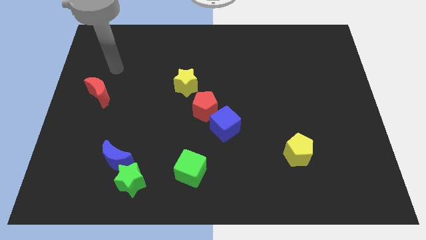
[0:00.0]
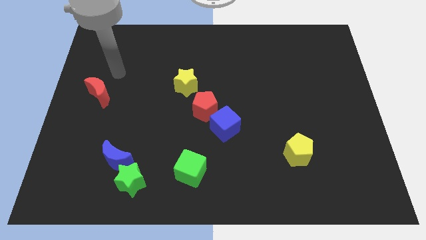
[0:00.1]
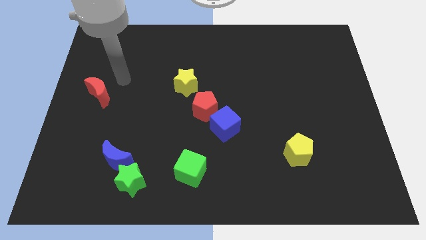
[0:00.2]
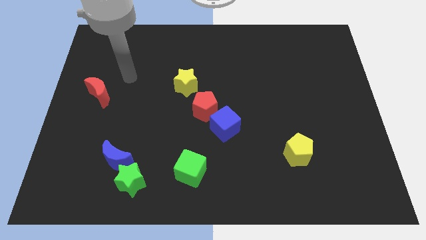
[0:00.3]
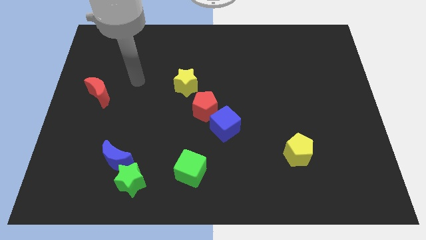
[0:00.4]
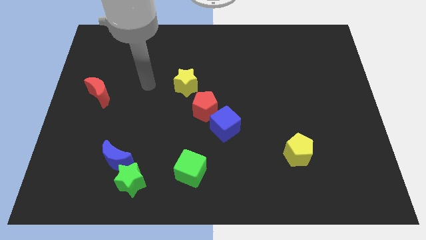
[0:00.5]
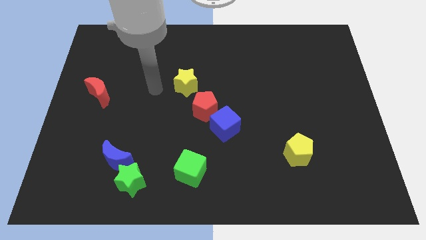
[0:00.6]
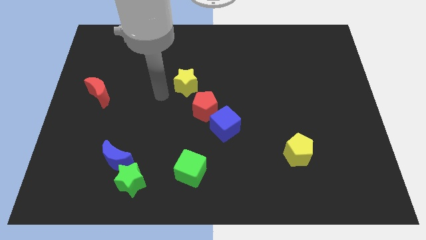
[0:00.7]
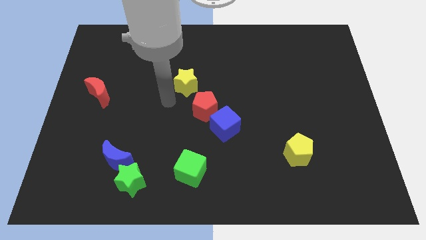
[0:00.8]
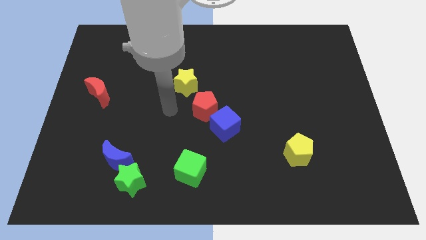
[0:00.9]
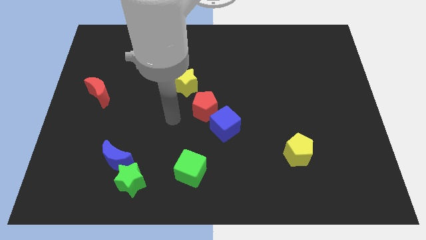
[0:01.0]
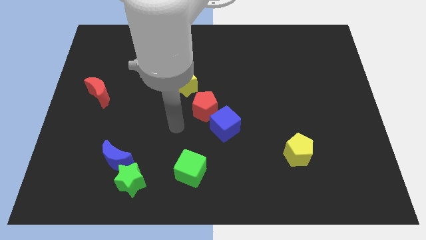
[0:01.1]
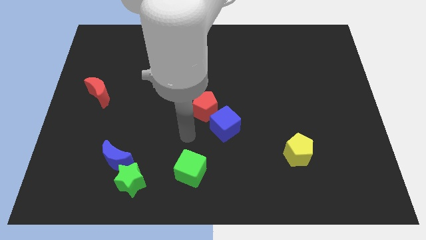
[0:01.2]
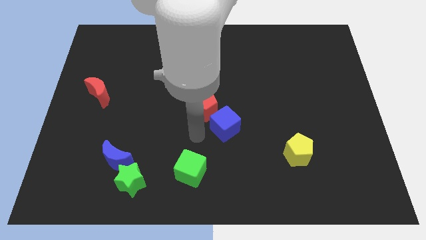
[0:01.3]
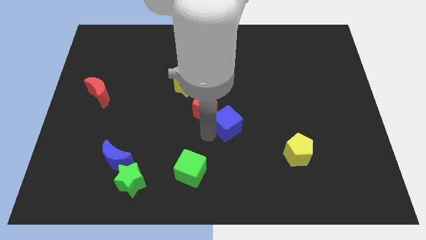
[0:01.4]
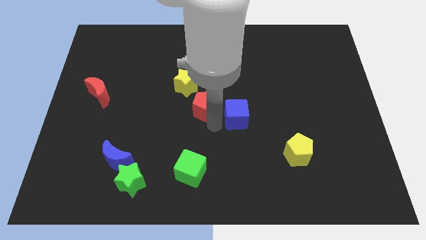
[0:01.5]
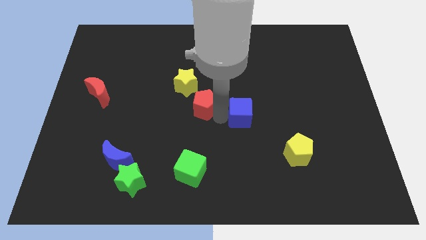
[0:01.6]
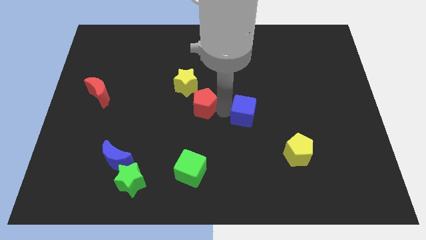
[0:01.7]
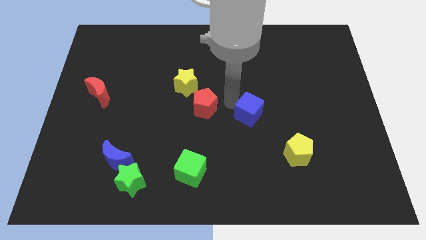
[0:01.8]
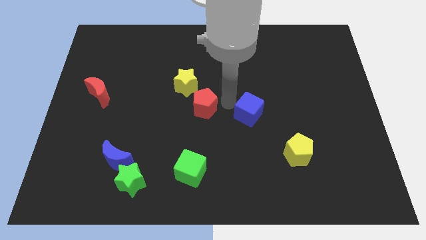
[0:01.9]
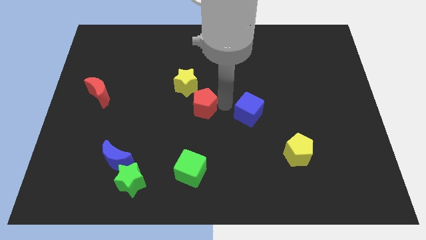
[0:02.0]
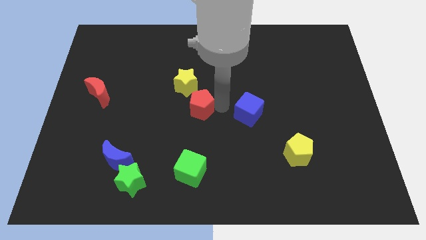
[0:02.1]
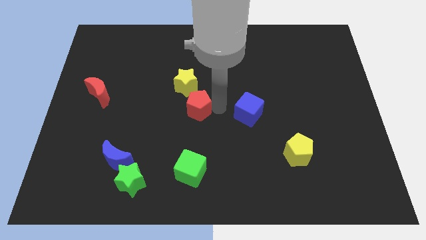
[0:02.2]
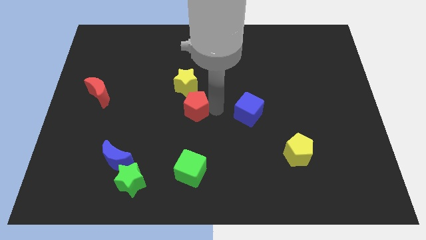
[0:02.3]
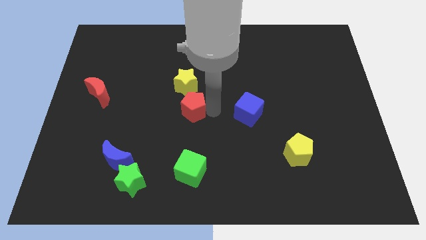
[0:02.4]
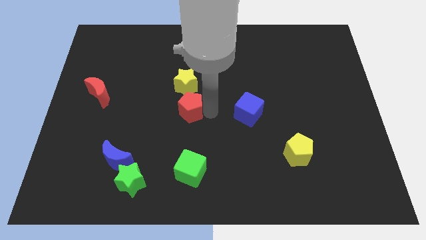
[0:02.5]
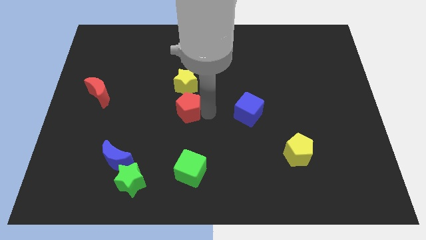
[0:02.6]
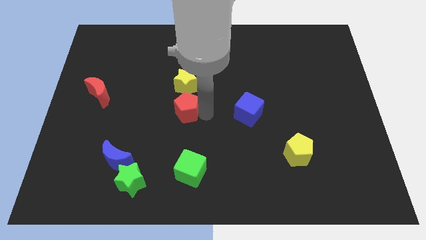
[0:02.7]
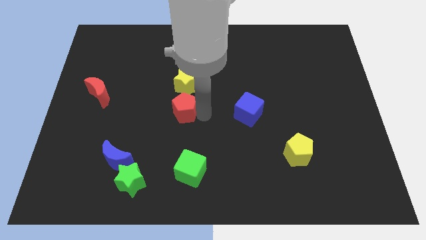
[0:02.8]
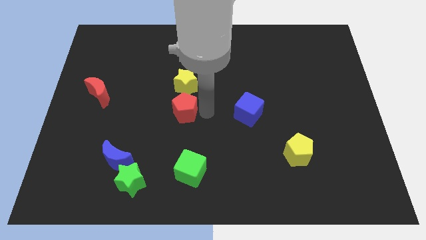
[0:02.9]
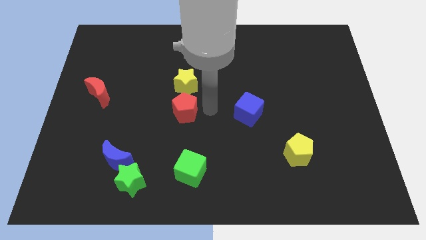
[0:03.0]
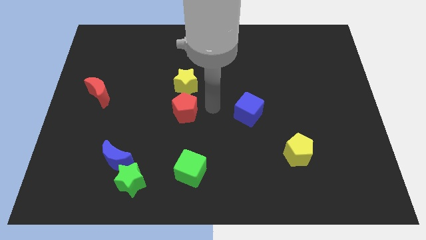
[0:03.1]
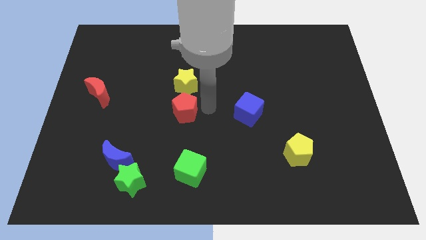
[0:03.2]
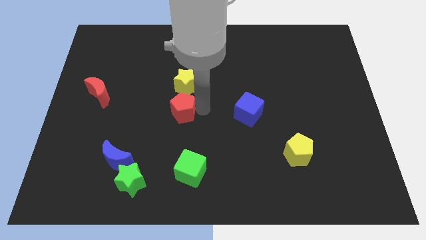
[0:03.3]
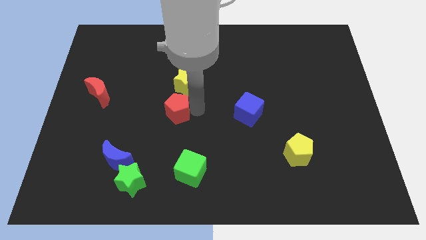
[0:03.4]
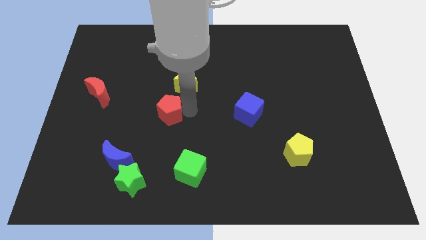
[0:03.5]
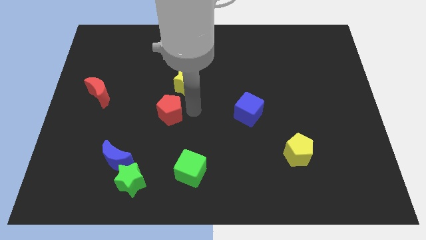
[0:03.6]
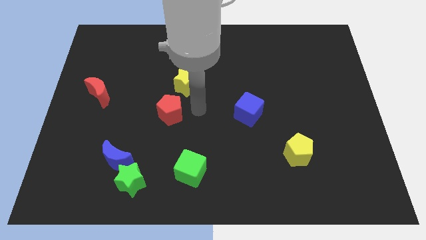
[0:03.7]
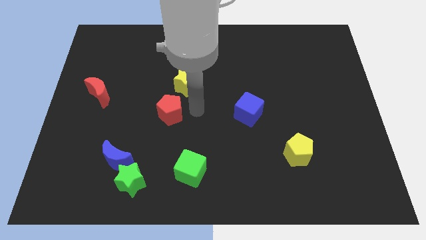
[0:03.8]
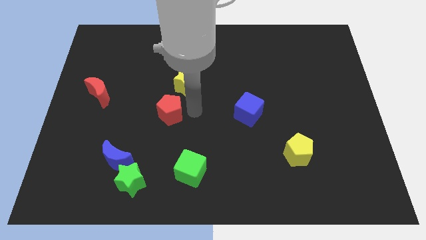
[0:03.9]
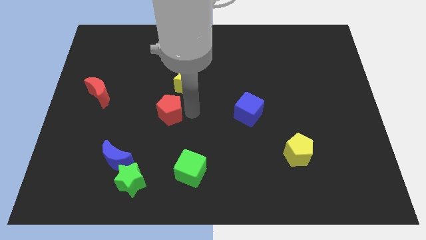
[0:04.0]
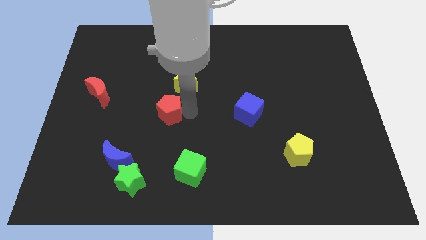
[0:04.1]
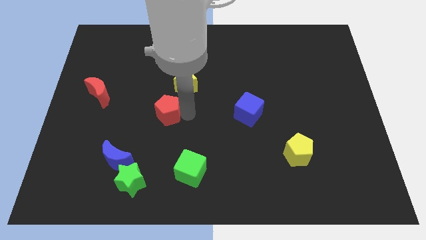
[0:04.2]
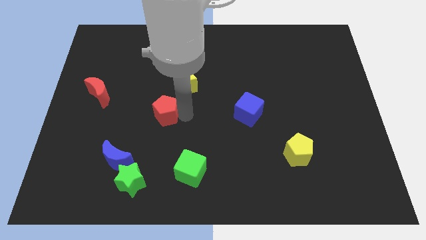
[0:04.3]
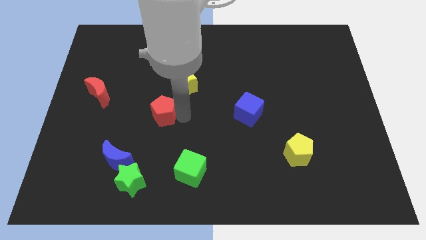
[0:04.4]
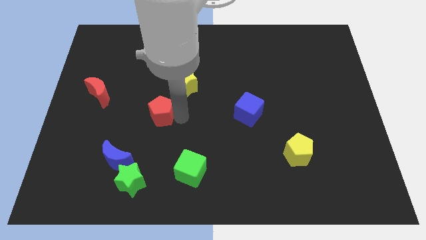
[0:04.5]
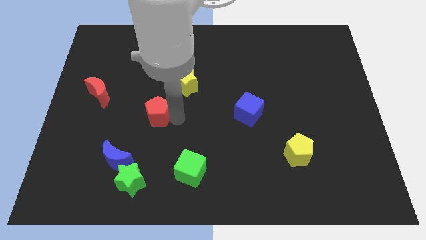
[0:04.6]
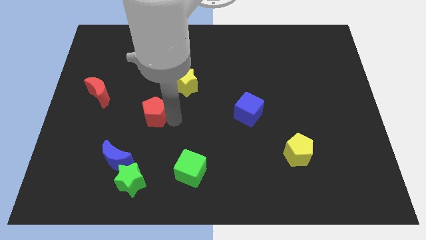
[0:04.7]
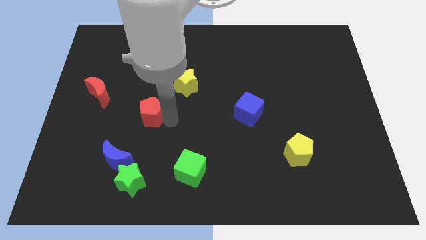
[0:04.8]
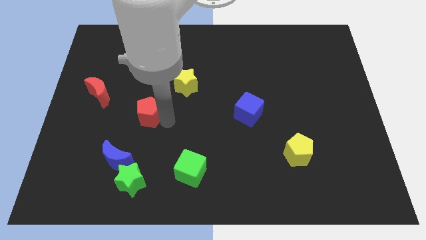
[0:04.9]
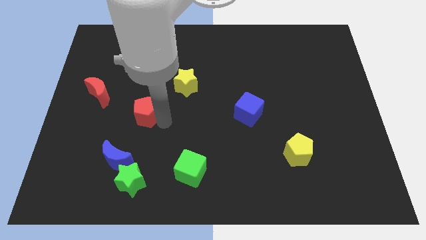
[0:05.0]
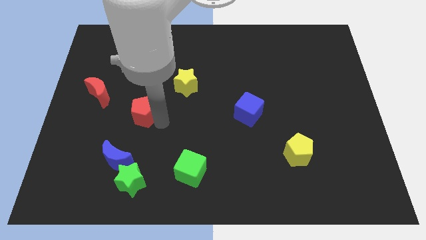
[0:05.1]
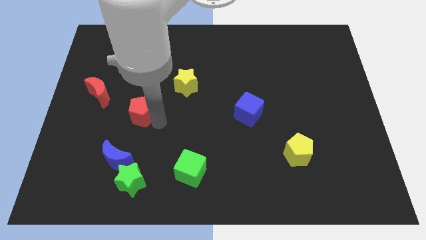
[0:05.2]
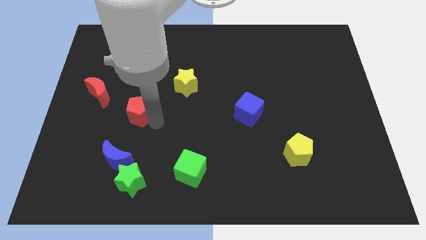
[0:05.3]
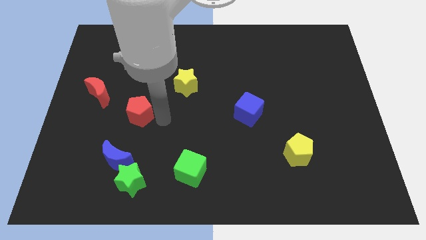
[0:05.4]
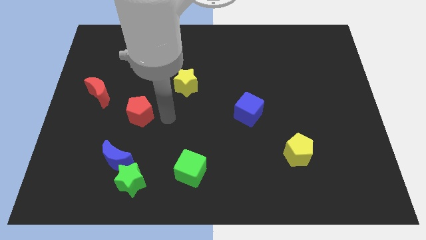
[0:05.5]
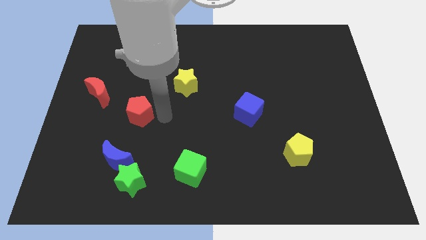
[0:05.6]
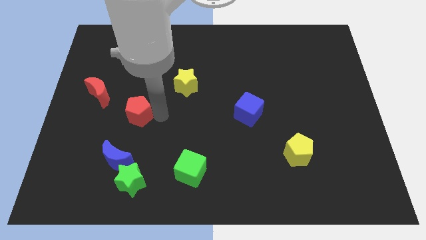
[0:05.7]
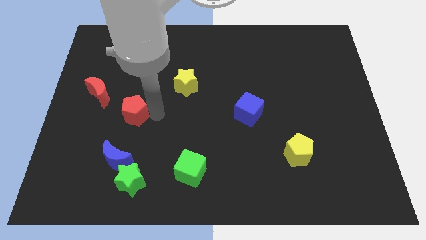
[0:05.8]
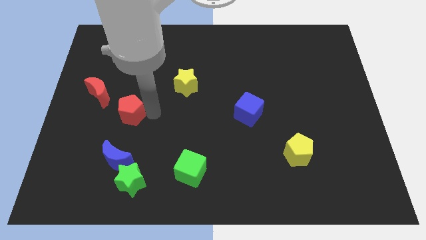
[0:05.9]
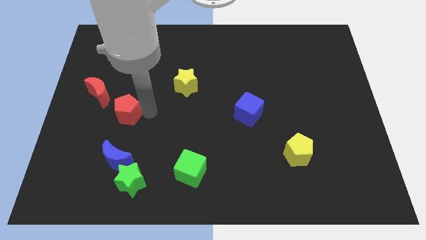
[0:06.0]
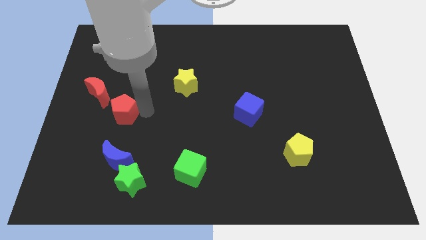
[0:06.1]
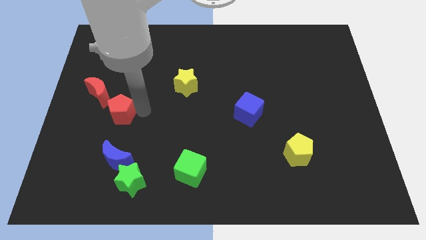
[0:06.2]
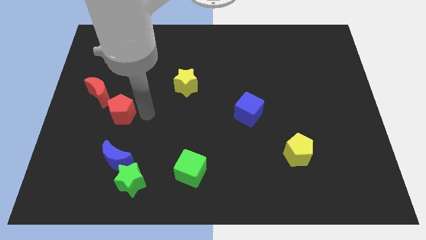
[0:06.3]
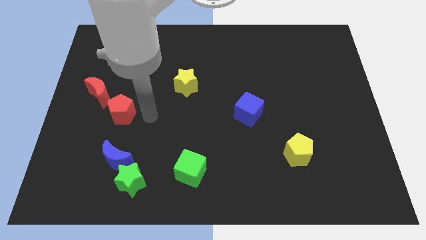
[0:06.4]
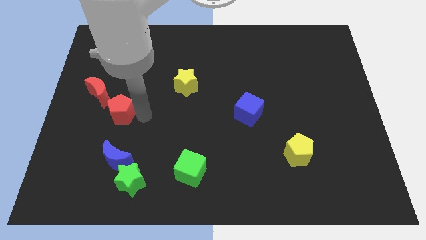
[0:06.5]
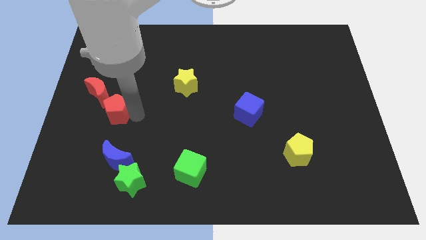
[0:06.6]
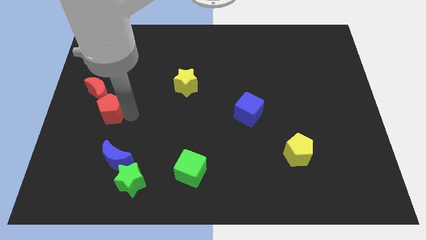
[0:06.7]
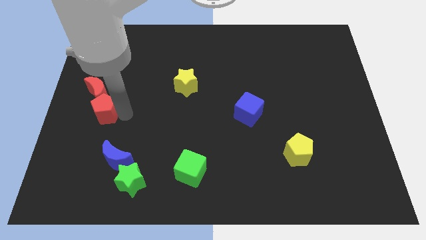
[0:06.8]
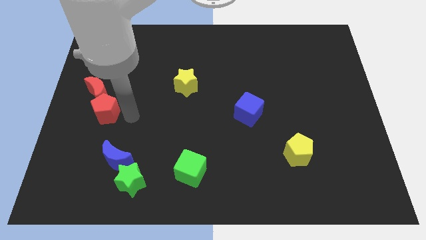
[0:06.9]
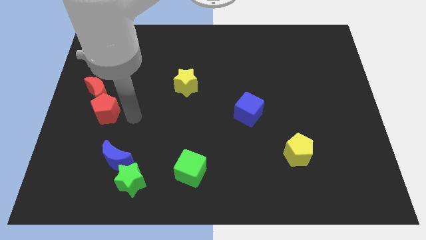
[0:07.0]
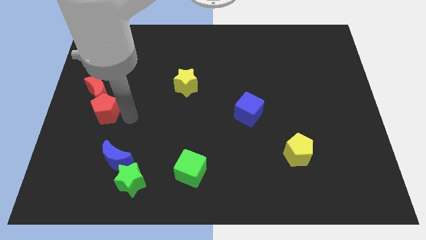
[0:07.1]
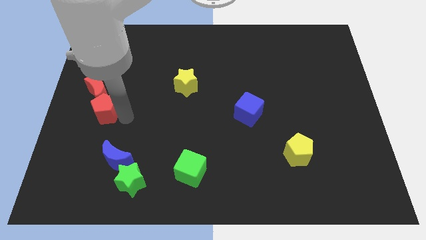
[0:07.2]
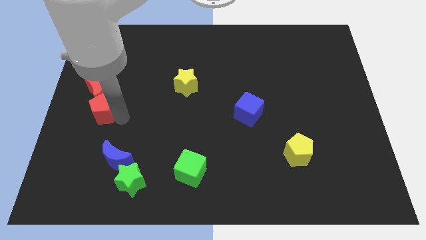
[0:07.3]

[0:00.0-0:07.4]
slide the red pentagon to the center left
